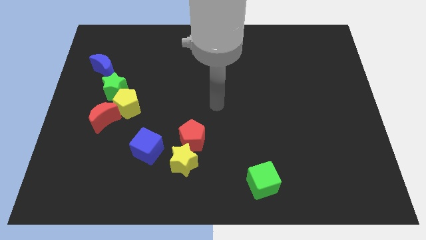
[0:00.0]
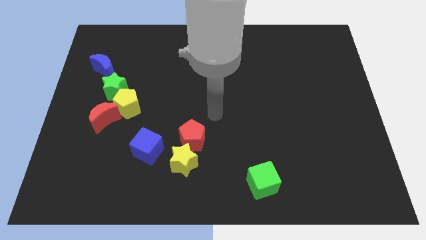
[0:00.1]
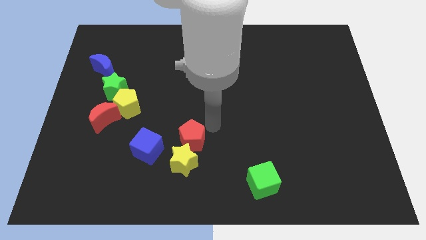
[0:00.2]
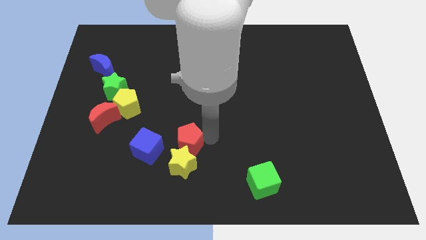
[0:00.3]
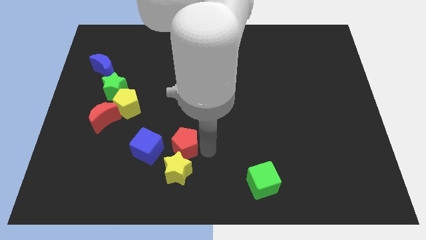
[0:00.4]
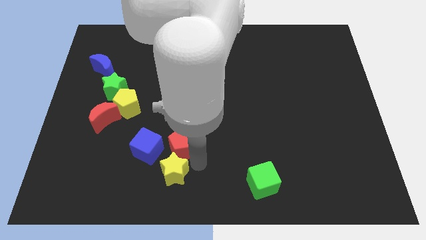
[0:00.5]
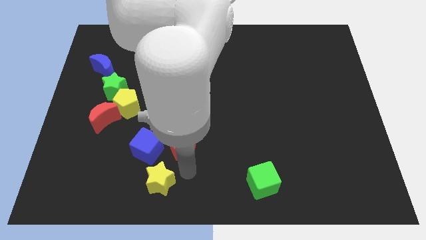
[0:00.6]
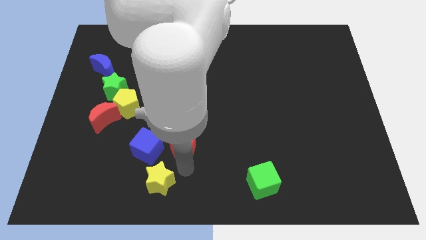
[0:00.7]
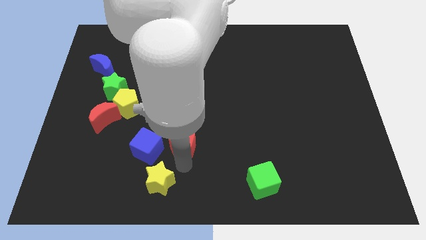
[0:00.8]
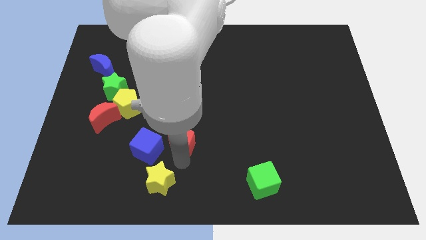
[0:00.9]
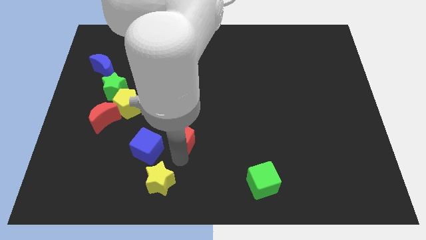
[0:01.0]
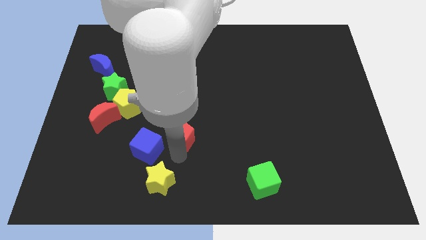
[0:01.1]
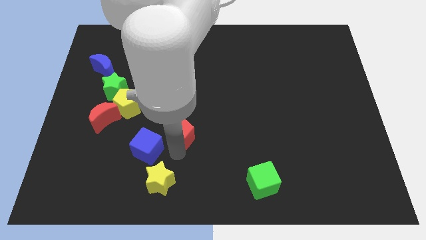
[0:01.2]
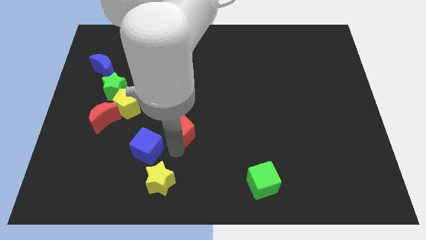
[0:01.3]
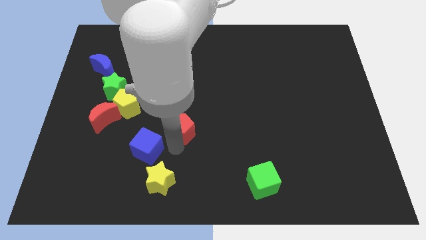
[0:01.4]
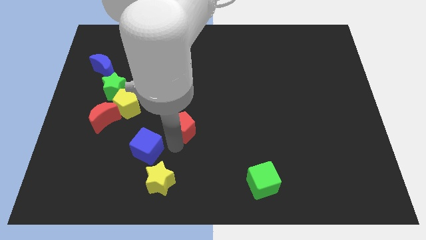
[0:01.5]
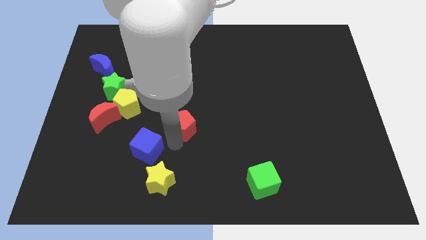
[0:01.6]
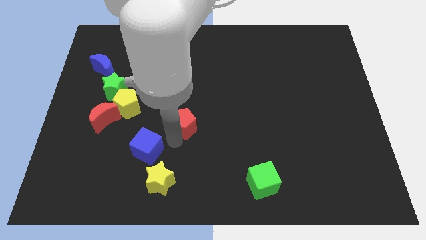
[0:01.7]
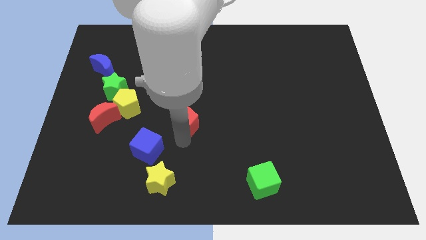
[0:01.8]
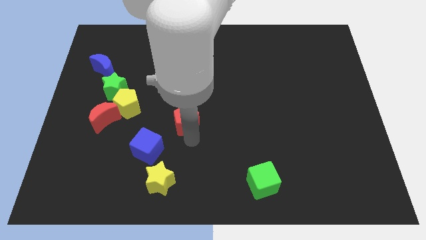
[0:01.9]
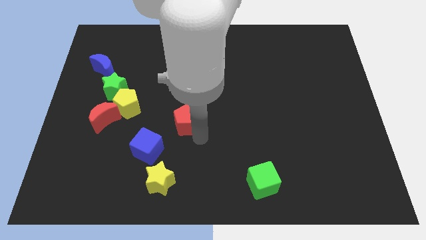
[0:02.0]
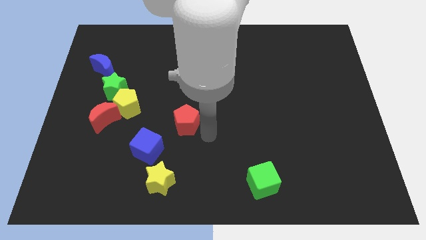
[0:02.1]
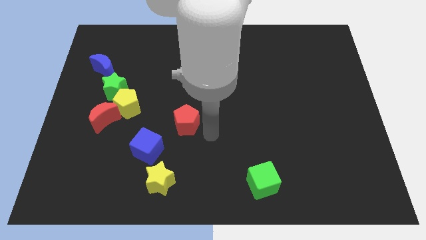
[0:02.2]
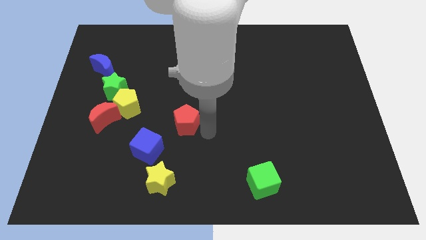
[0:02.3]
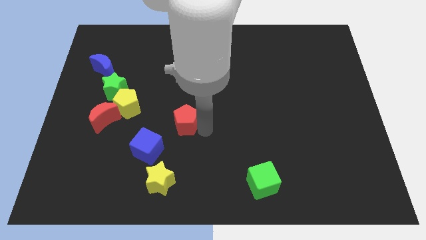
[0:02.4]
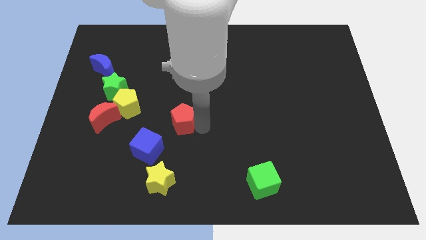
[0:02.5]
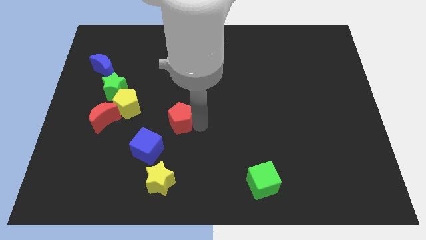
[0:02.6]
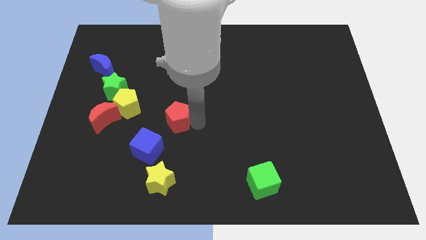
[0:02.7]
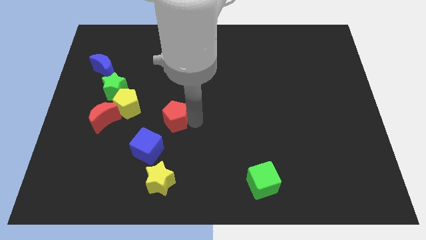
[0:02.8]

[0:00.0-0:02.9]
slide the red pentagon diagonally up and to the left a little bit

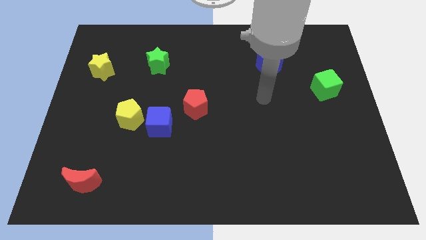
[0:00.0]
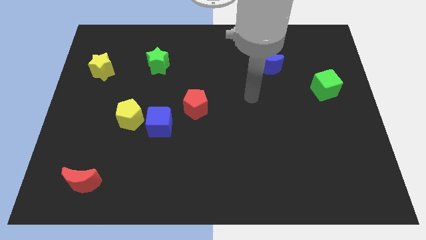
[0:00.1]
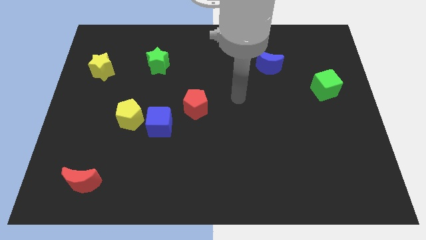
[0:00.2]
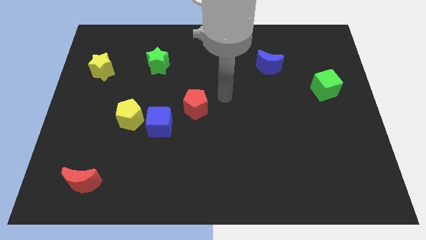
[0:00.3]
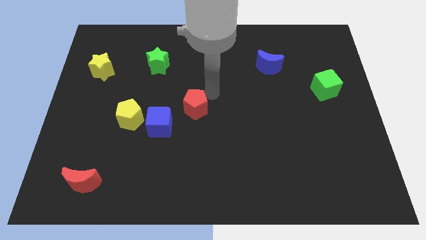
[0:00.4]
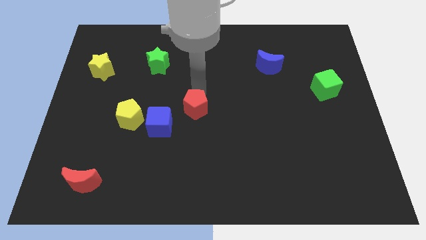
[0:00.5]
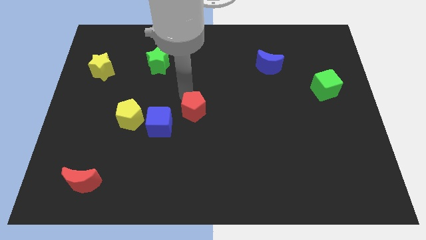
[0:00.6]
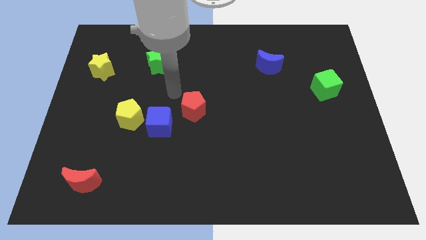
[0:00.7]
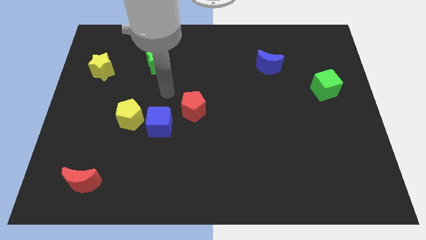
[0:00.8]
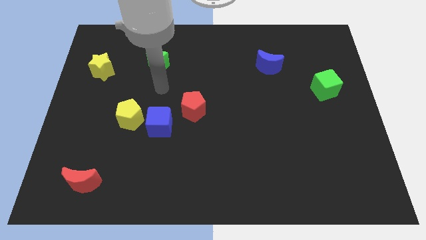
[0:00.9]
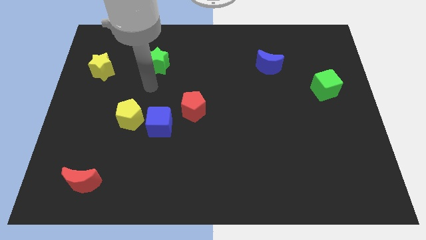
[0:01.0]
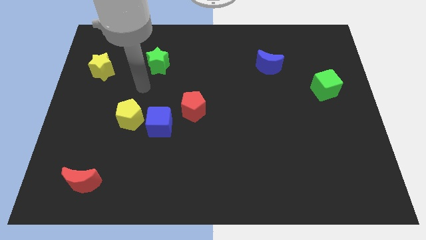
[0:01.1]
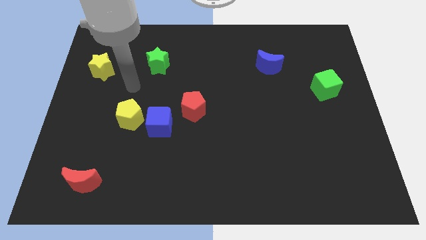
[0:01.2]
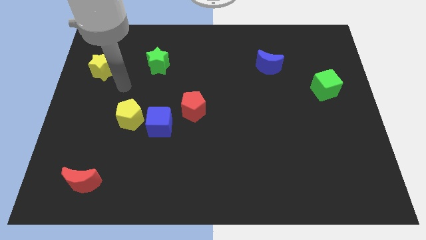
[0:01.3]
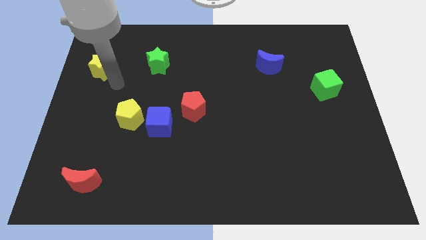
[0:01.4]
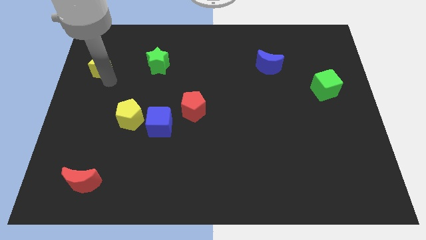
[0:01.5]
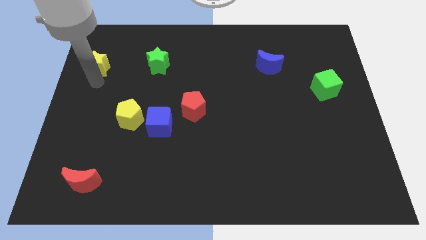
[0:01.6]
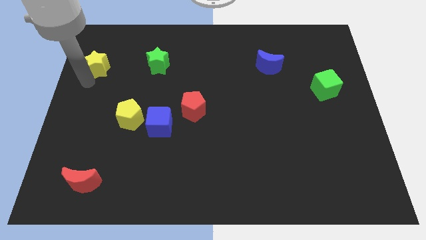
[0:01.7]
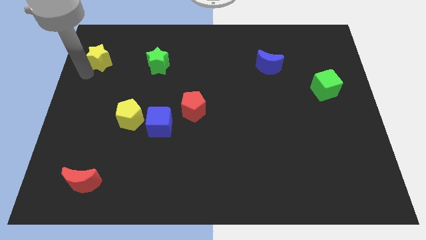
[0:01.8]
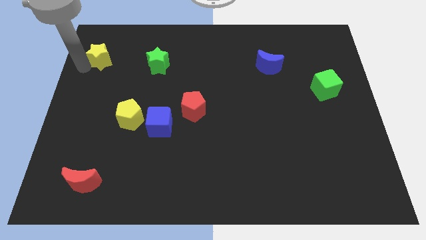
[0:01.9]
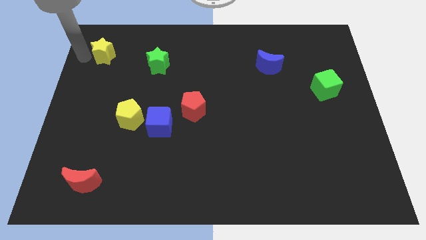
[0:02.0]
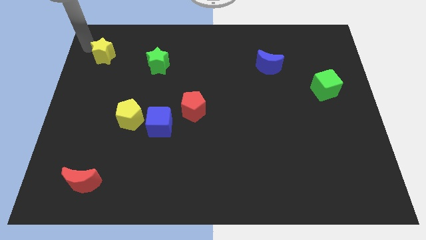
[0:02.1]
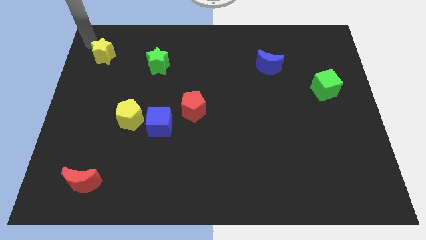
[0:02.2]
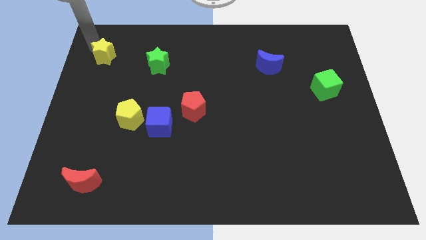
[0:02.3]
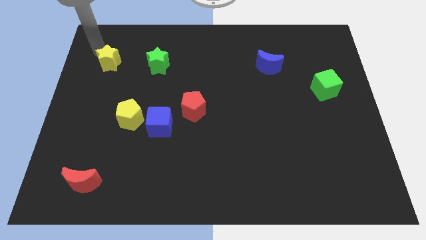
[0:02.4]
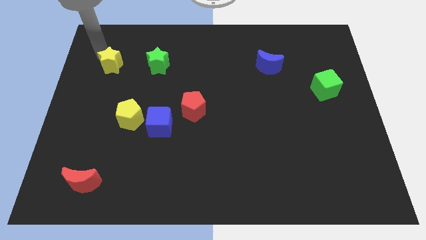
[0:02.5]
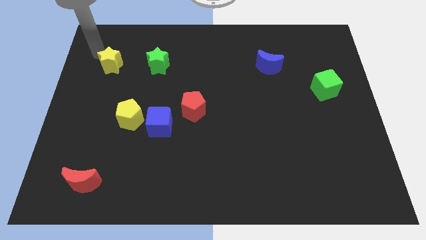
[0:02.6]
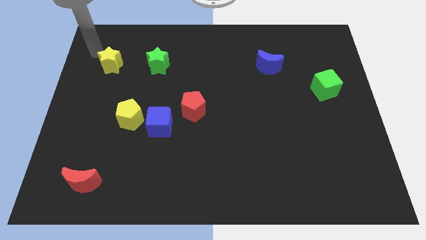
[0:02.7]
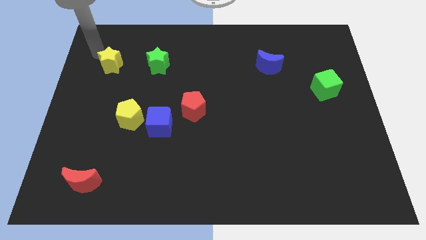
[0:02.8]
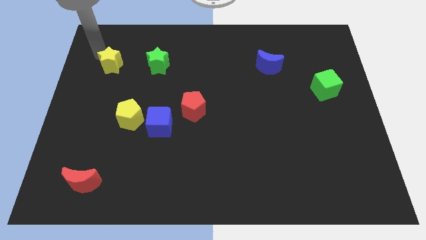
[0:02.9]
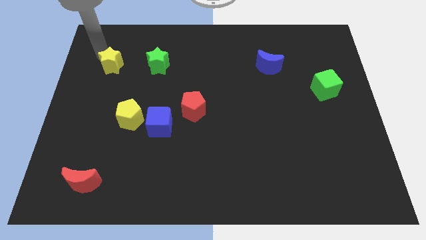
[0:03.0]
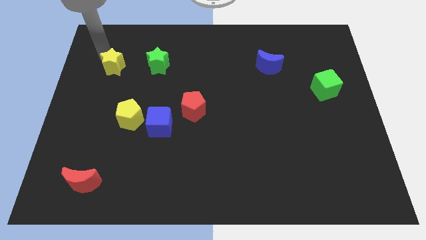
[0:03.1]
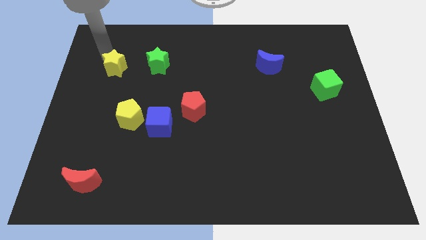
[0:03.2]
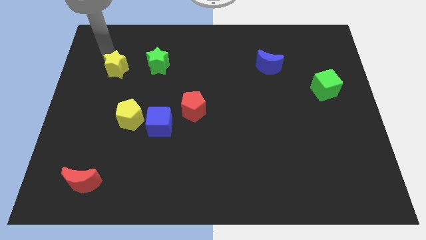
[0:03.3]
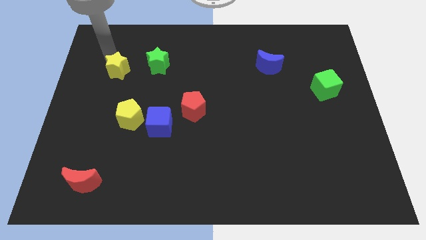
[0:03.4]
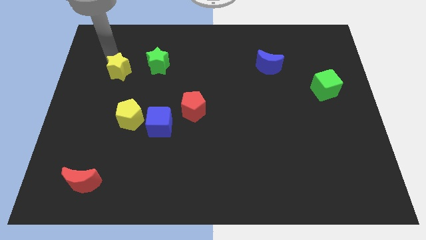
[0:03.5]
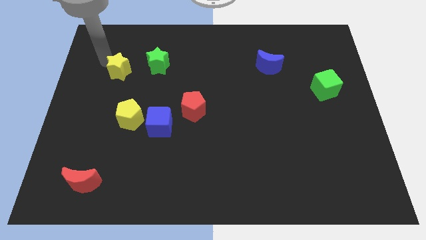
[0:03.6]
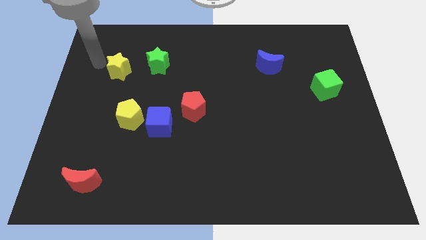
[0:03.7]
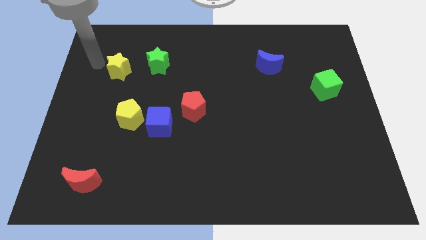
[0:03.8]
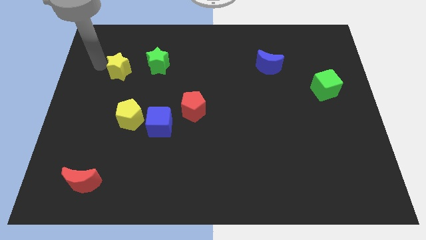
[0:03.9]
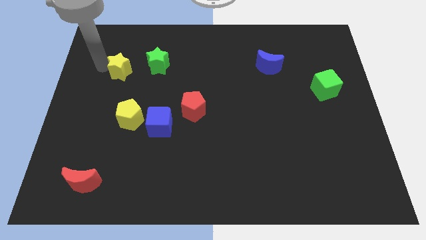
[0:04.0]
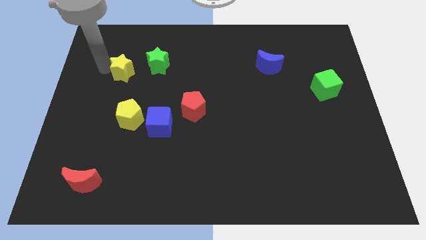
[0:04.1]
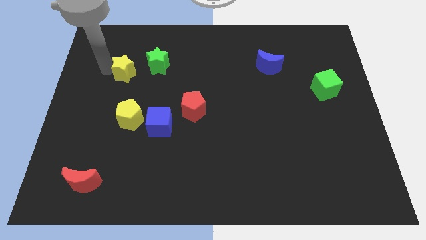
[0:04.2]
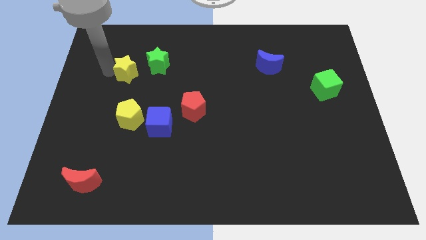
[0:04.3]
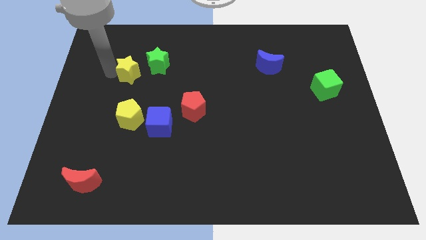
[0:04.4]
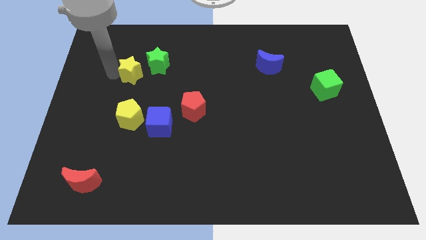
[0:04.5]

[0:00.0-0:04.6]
slide the yellow star a little bit right

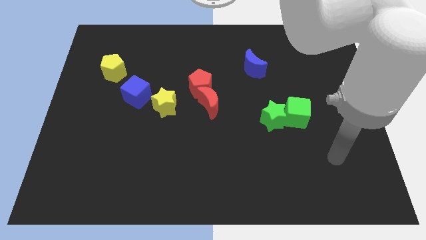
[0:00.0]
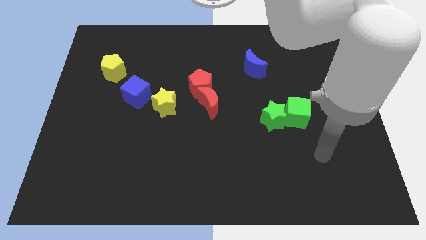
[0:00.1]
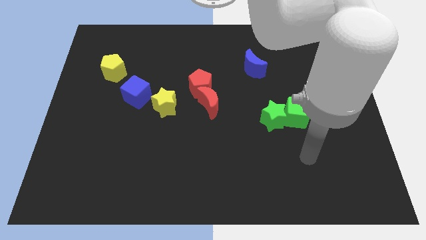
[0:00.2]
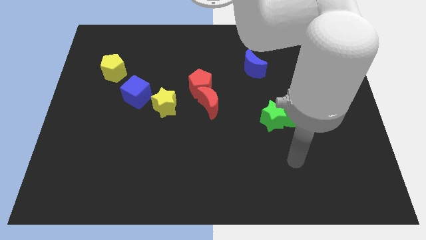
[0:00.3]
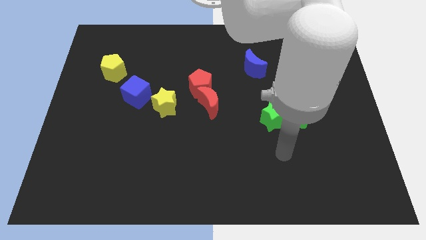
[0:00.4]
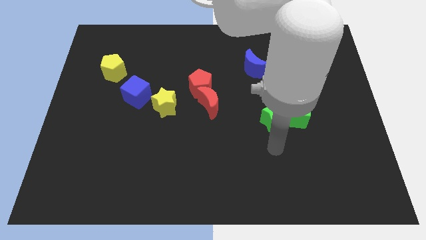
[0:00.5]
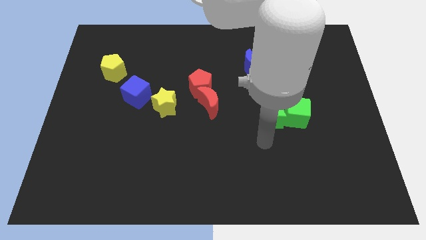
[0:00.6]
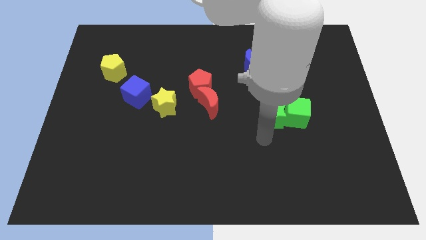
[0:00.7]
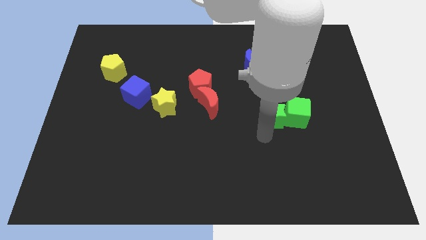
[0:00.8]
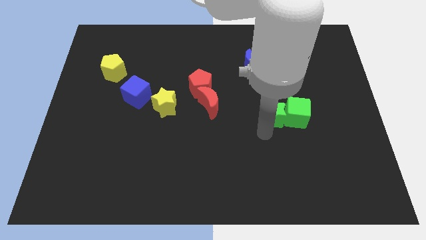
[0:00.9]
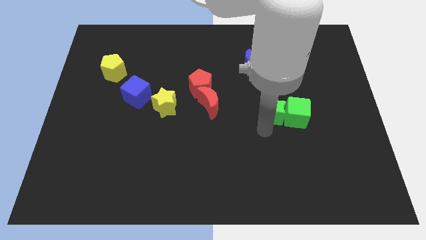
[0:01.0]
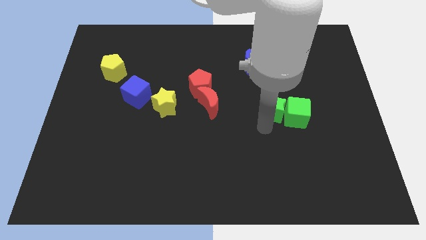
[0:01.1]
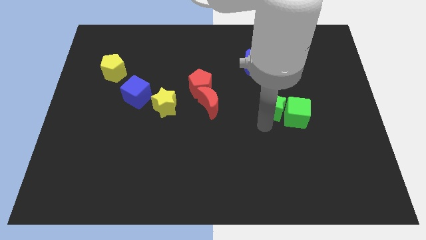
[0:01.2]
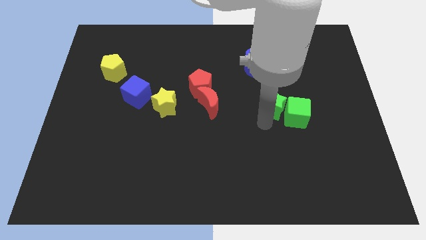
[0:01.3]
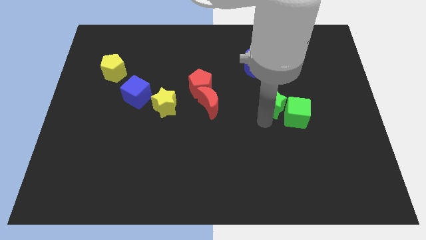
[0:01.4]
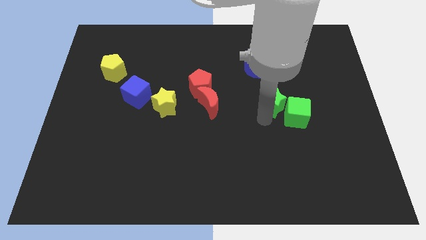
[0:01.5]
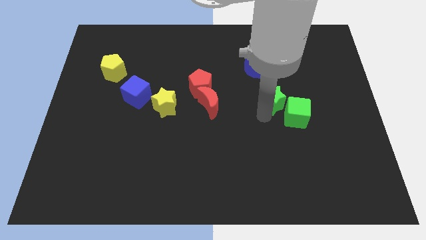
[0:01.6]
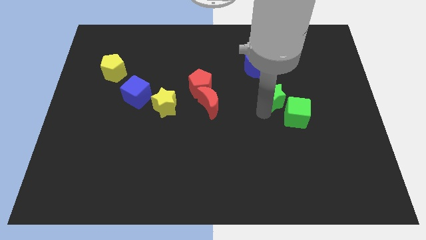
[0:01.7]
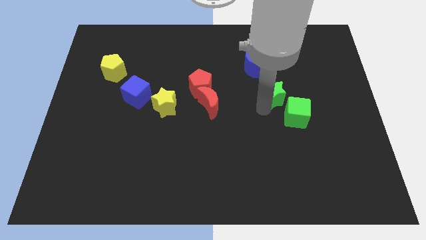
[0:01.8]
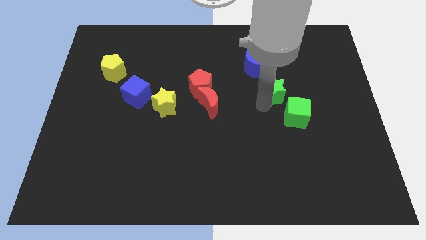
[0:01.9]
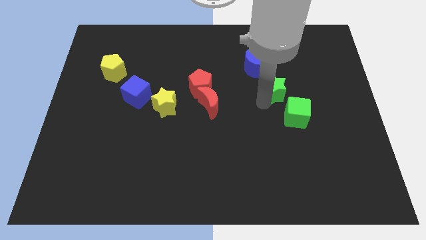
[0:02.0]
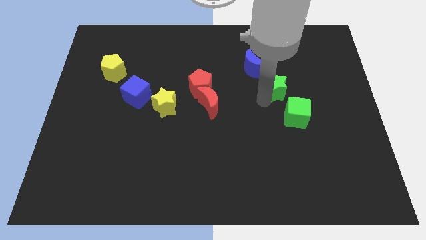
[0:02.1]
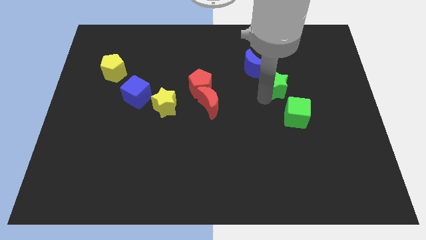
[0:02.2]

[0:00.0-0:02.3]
slide the green star upwards and to the right a little
